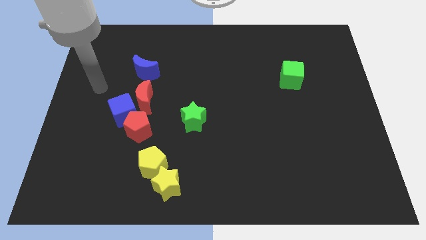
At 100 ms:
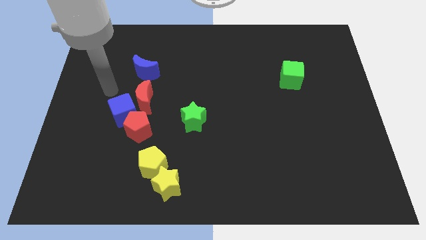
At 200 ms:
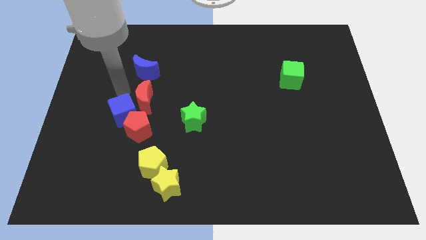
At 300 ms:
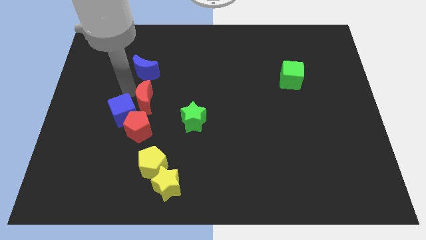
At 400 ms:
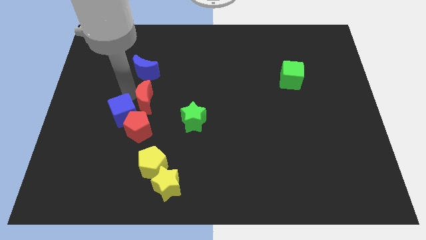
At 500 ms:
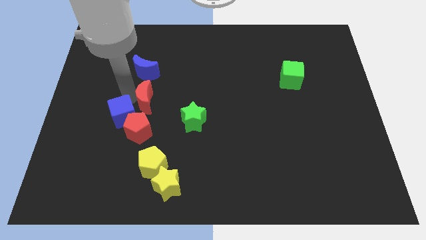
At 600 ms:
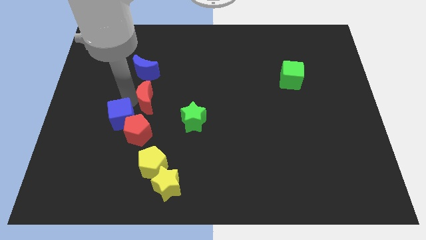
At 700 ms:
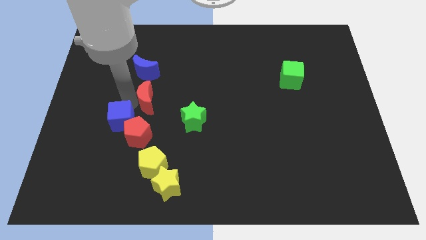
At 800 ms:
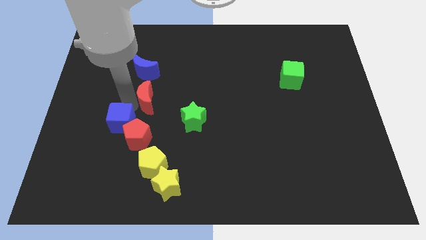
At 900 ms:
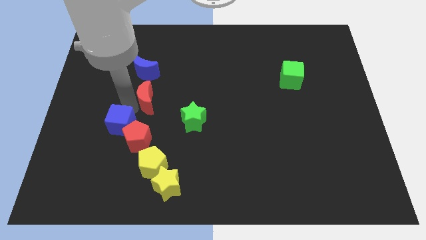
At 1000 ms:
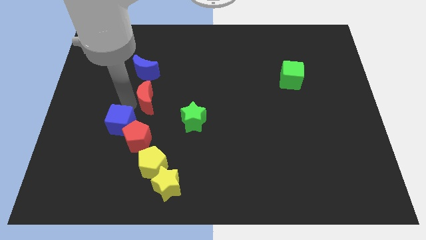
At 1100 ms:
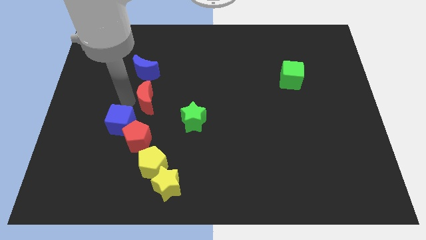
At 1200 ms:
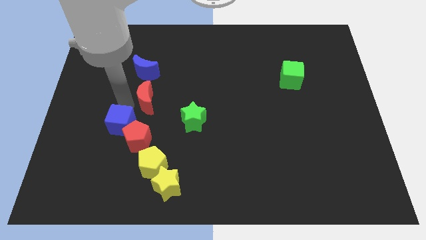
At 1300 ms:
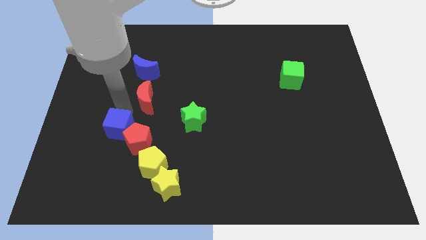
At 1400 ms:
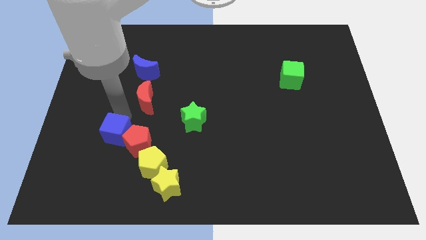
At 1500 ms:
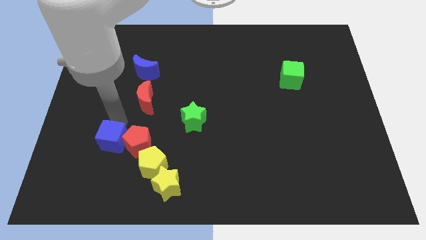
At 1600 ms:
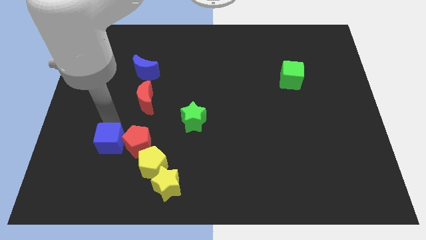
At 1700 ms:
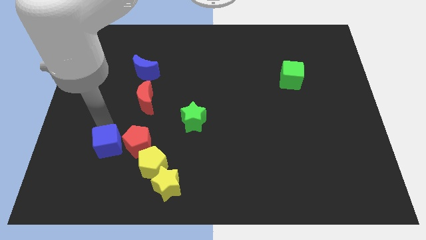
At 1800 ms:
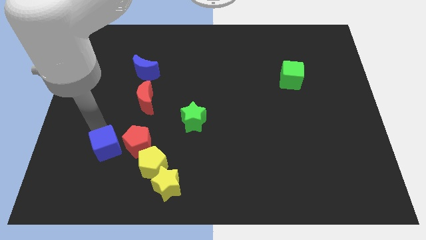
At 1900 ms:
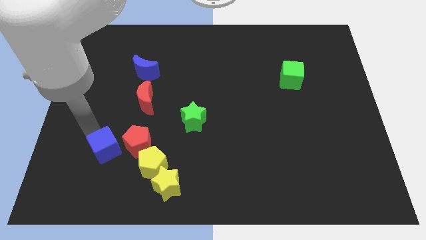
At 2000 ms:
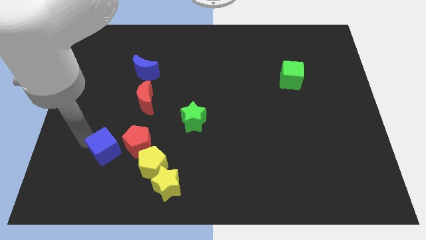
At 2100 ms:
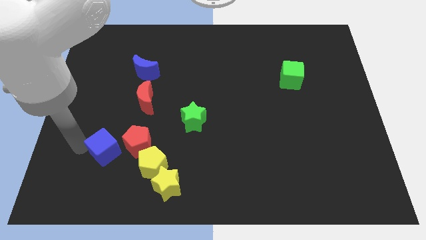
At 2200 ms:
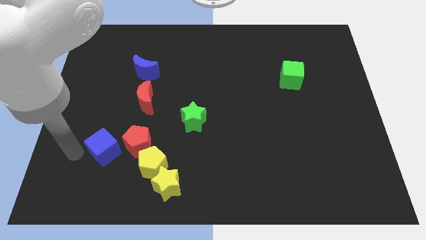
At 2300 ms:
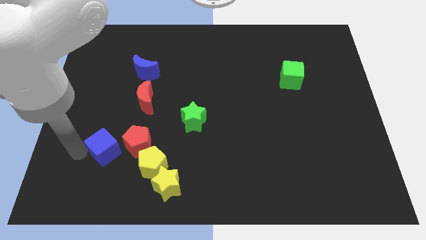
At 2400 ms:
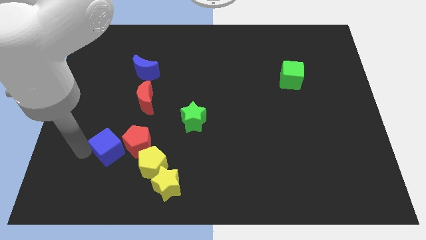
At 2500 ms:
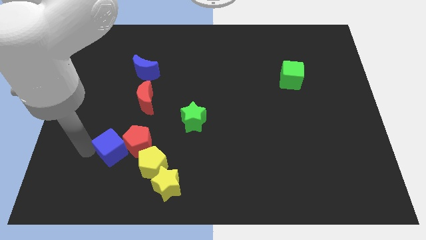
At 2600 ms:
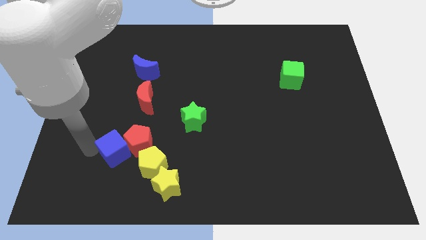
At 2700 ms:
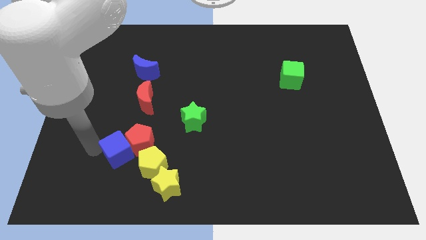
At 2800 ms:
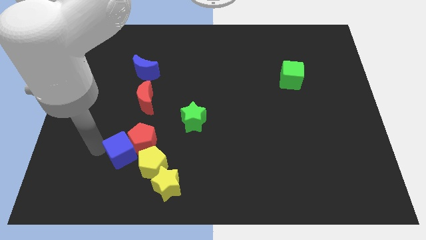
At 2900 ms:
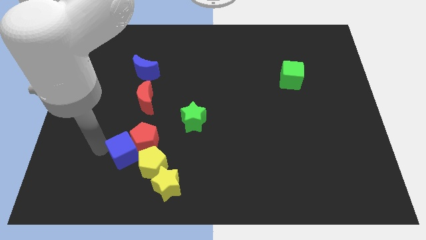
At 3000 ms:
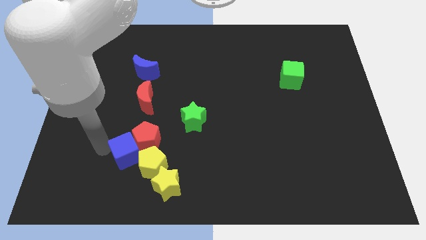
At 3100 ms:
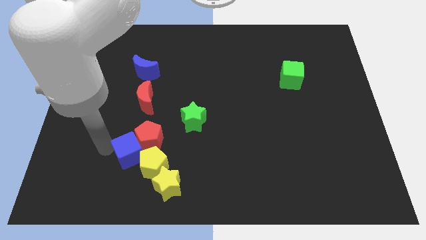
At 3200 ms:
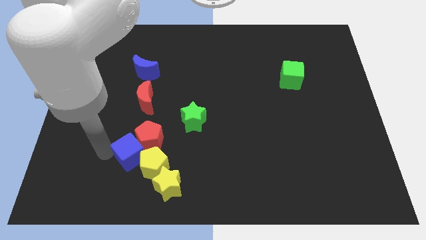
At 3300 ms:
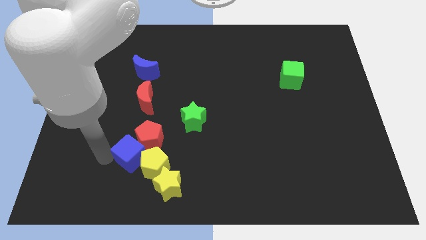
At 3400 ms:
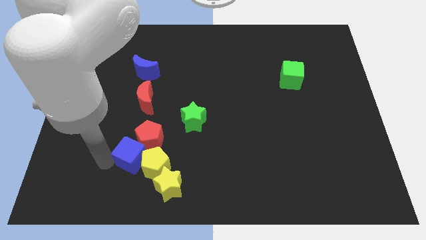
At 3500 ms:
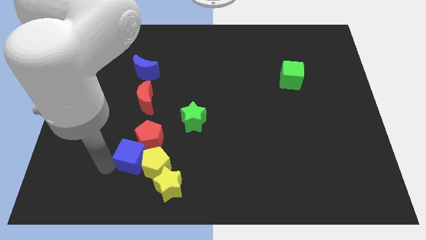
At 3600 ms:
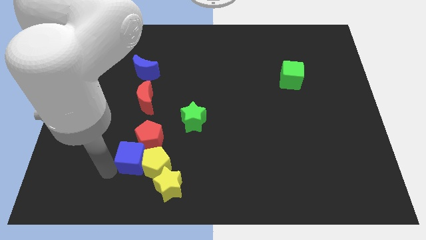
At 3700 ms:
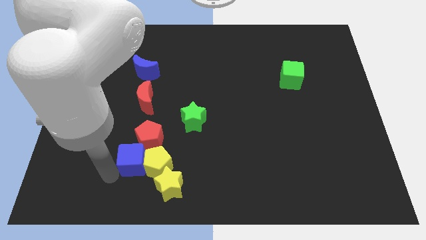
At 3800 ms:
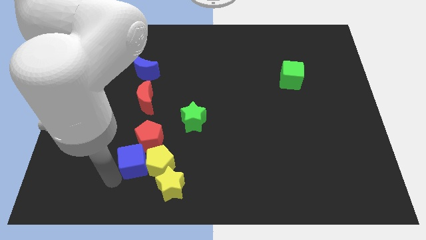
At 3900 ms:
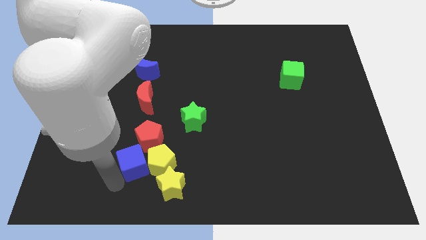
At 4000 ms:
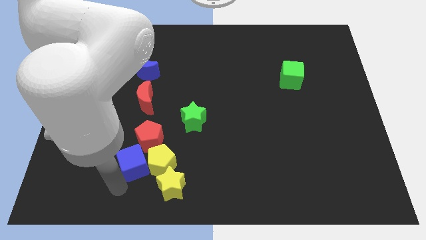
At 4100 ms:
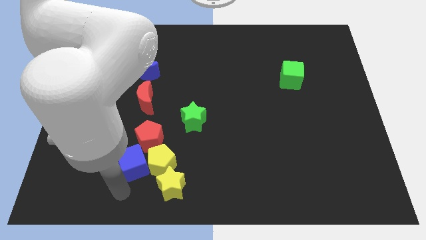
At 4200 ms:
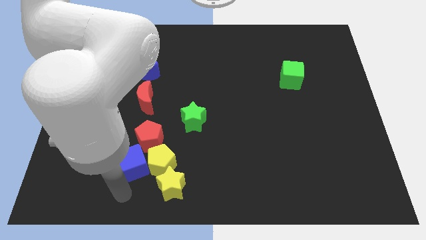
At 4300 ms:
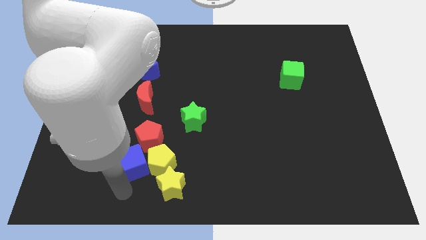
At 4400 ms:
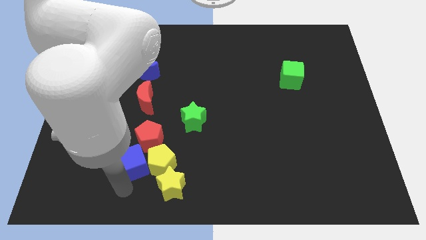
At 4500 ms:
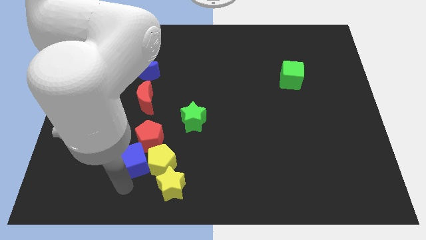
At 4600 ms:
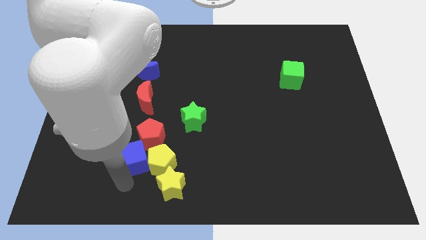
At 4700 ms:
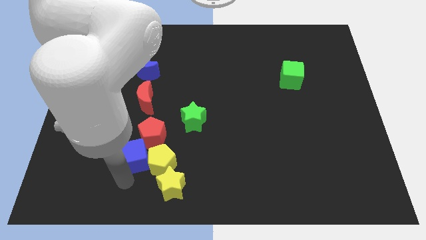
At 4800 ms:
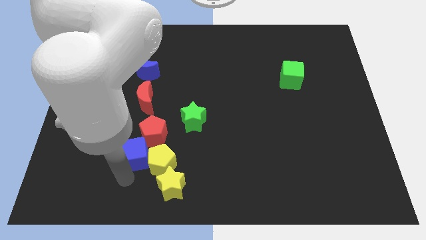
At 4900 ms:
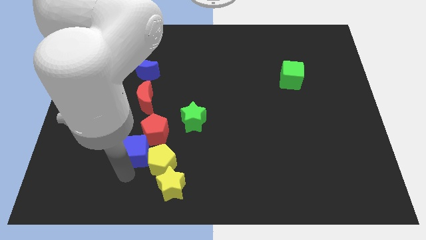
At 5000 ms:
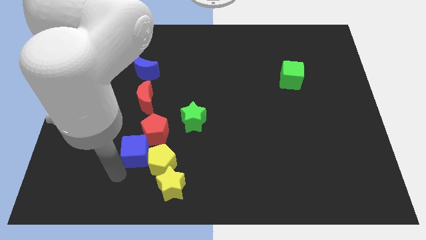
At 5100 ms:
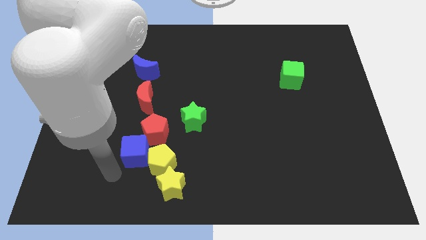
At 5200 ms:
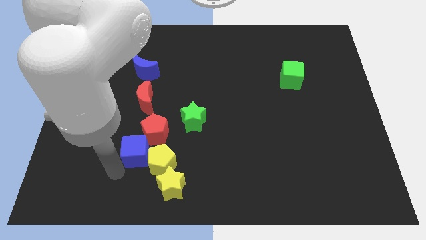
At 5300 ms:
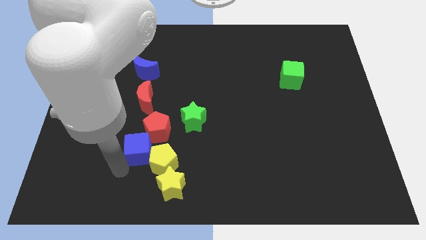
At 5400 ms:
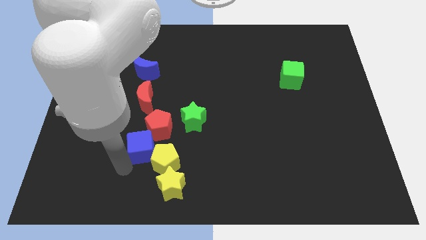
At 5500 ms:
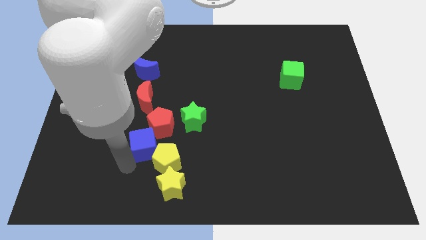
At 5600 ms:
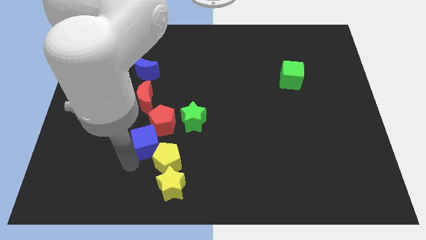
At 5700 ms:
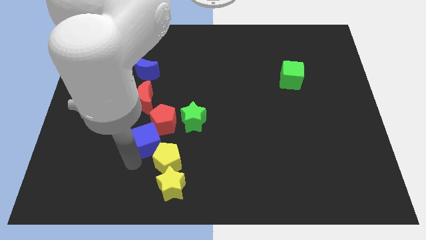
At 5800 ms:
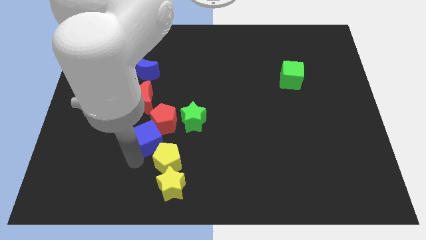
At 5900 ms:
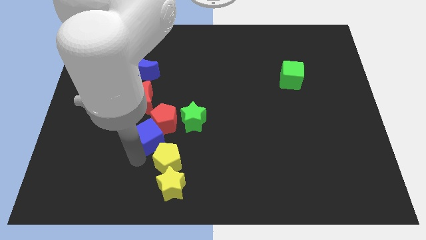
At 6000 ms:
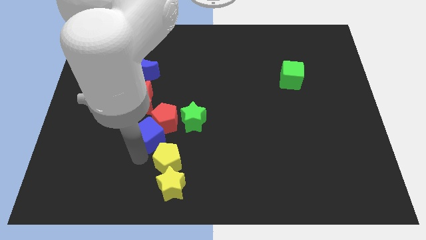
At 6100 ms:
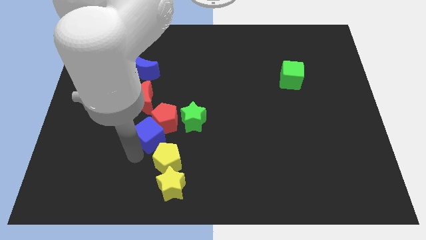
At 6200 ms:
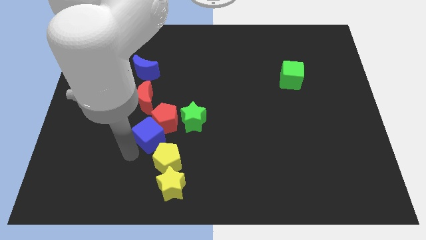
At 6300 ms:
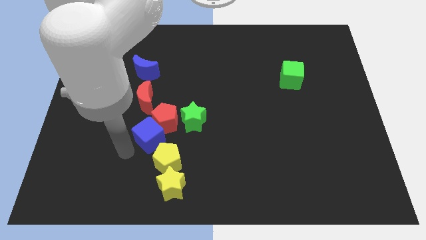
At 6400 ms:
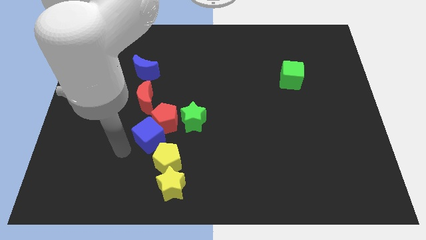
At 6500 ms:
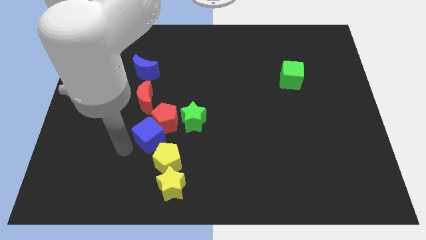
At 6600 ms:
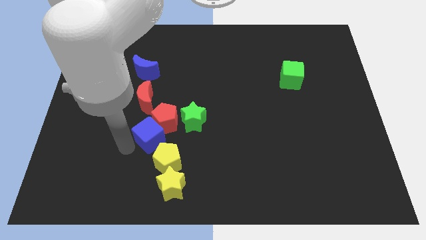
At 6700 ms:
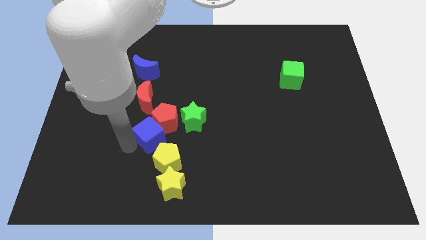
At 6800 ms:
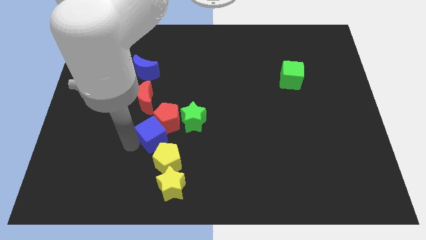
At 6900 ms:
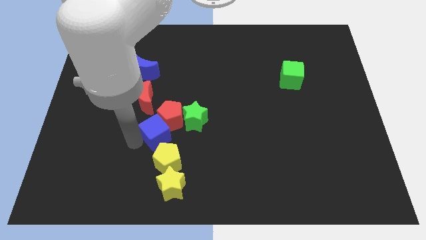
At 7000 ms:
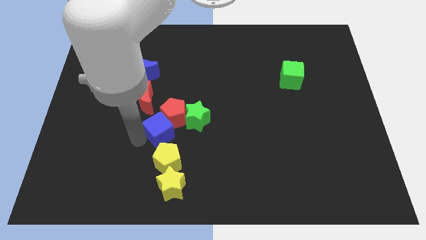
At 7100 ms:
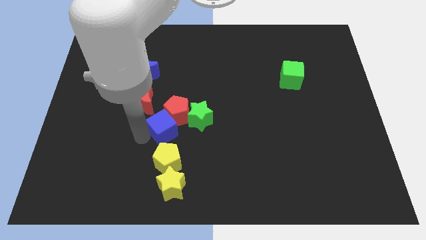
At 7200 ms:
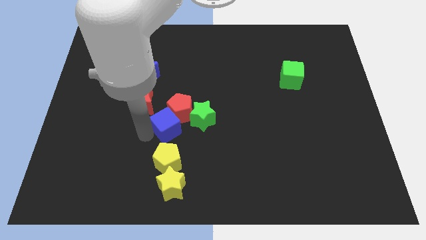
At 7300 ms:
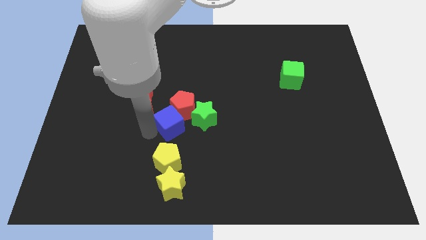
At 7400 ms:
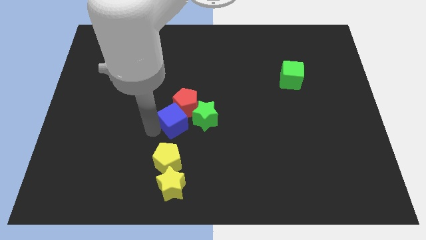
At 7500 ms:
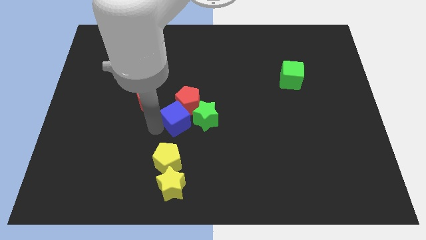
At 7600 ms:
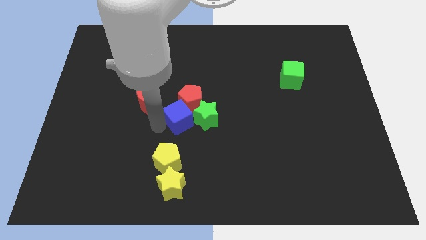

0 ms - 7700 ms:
slide the blue cube to the green star
